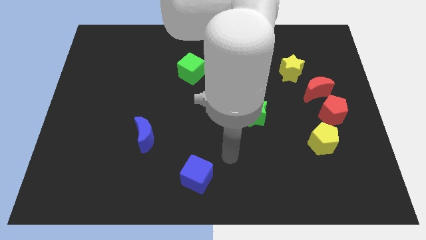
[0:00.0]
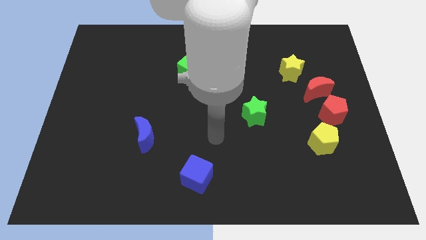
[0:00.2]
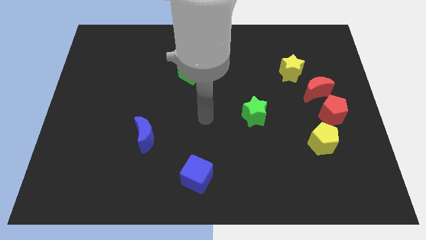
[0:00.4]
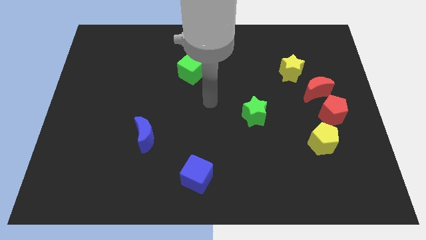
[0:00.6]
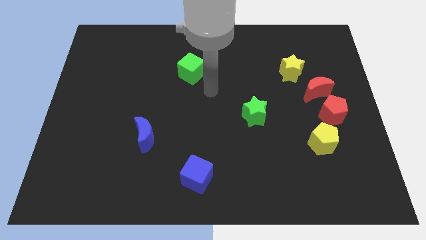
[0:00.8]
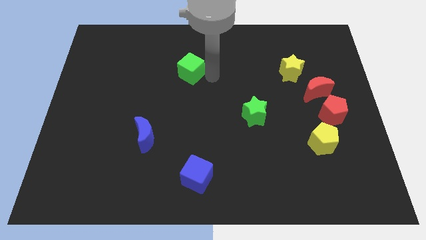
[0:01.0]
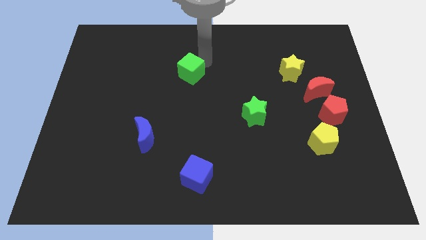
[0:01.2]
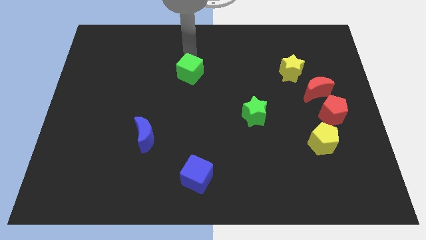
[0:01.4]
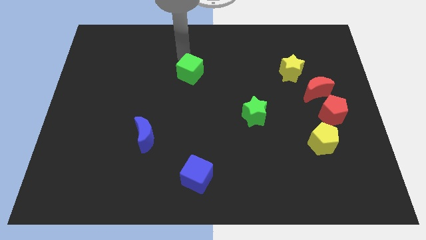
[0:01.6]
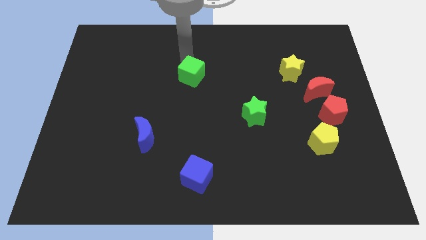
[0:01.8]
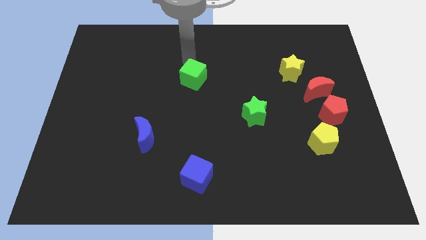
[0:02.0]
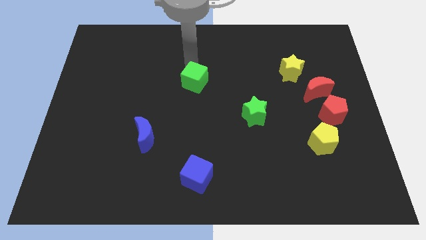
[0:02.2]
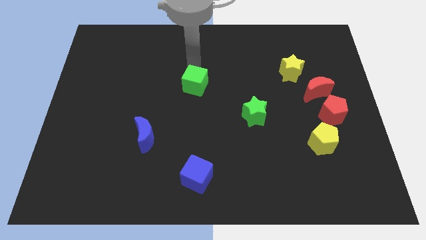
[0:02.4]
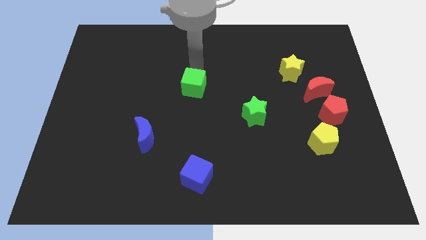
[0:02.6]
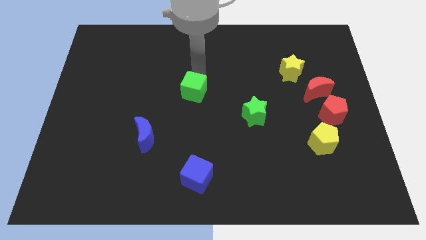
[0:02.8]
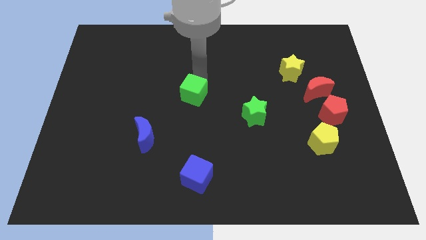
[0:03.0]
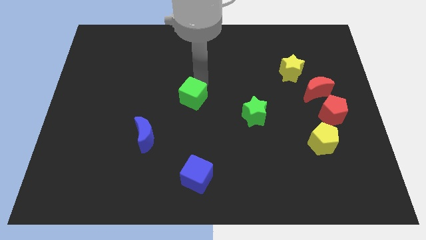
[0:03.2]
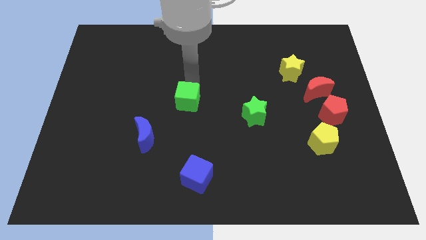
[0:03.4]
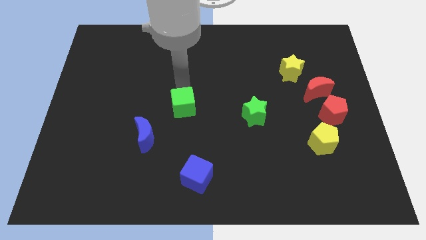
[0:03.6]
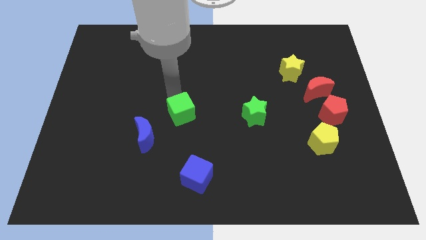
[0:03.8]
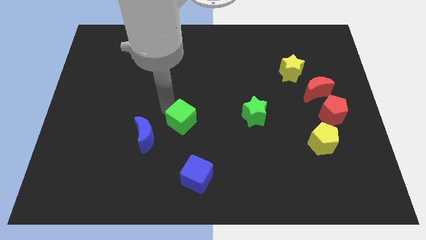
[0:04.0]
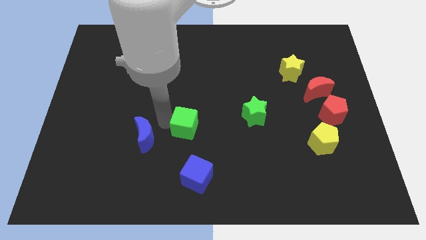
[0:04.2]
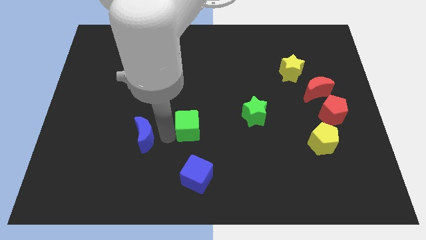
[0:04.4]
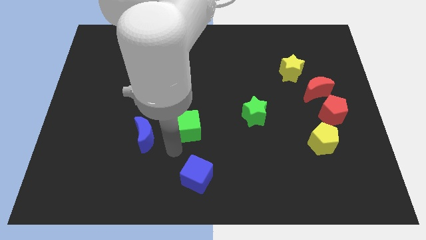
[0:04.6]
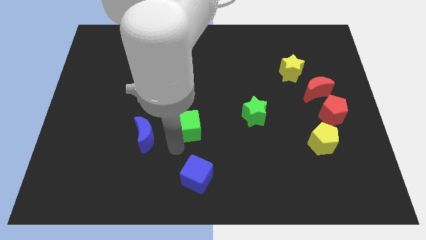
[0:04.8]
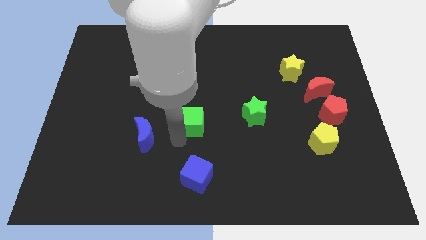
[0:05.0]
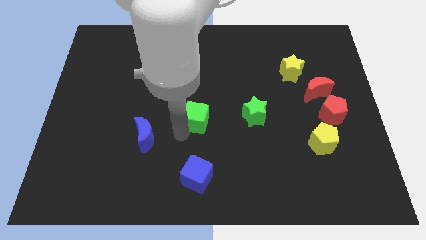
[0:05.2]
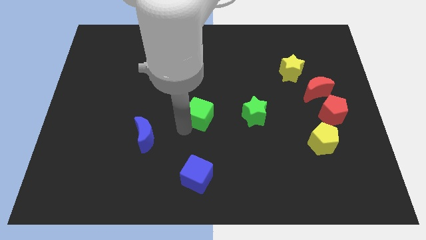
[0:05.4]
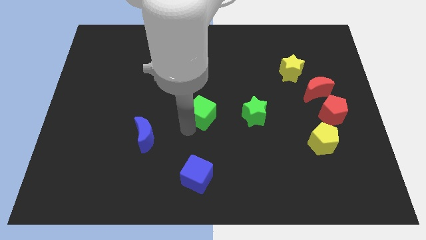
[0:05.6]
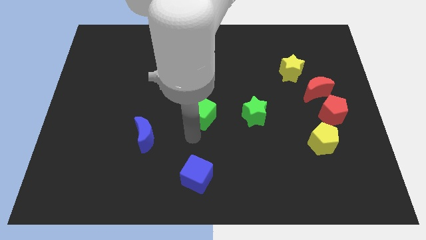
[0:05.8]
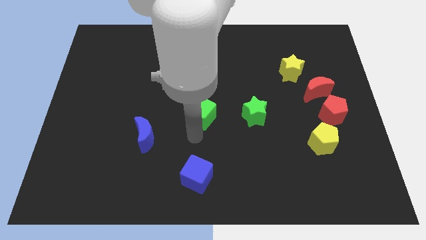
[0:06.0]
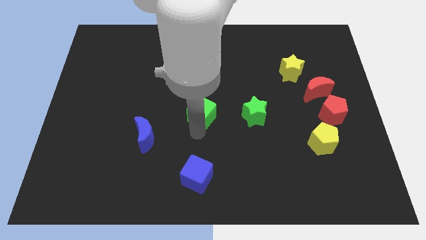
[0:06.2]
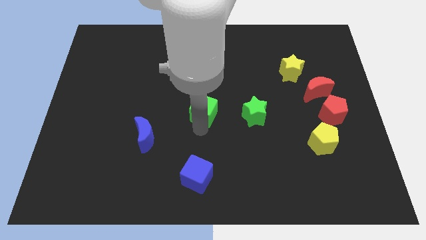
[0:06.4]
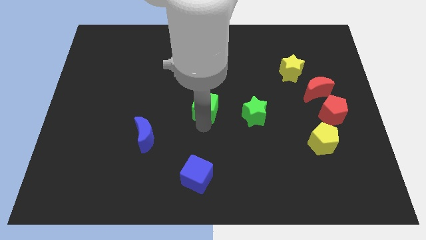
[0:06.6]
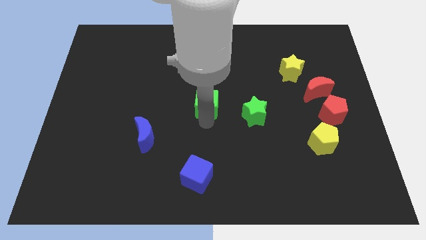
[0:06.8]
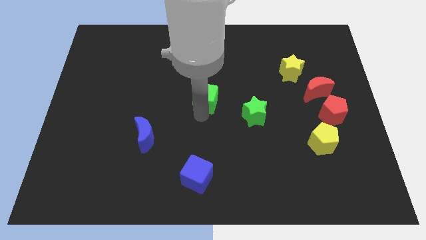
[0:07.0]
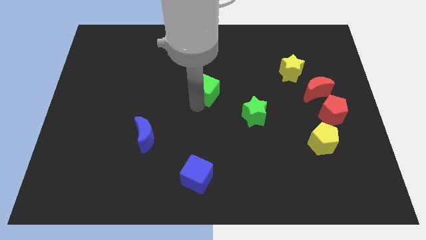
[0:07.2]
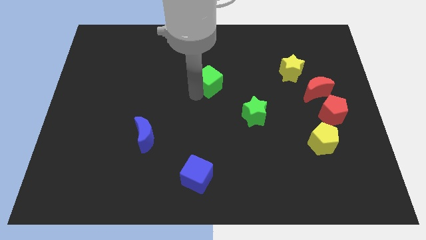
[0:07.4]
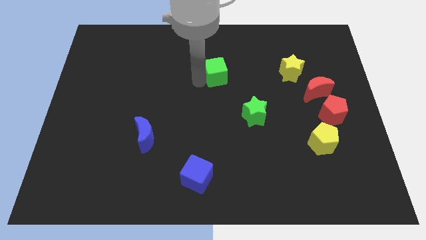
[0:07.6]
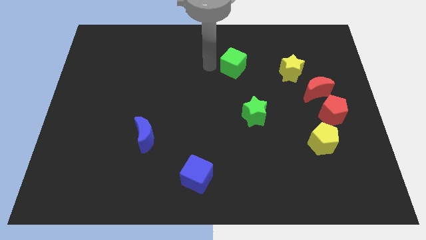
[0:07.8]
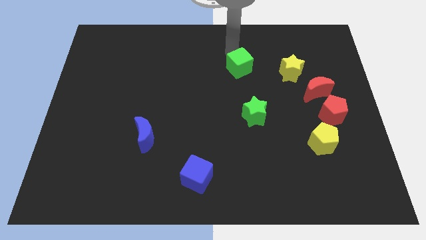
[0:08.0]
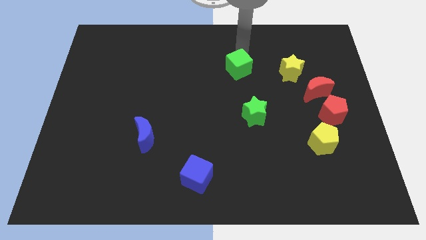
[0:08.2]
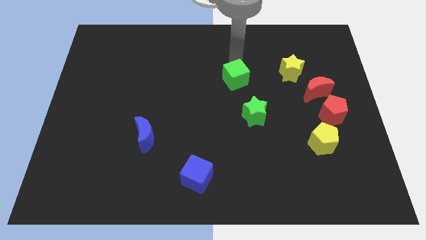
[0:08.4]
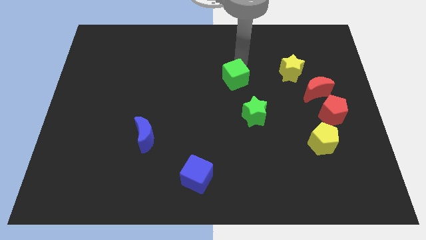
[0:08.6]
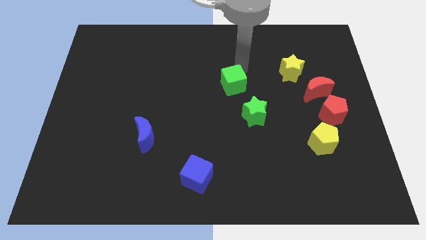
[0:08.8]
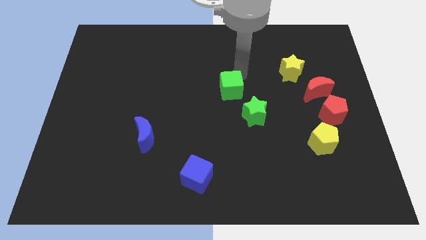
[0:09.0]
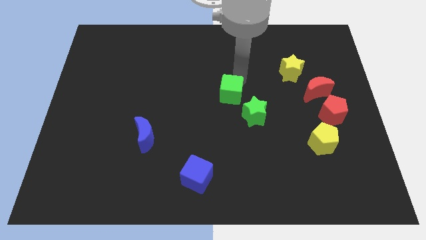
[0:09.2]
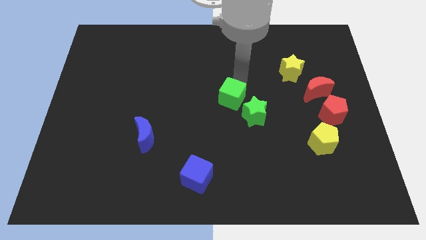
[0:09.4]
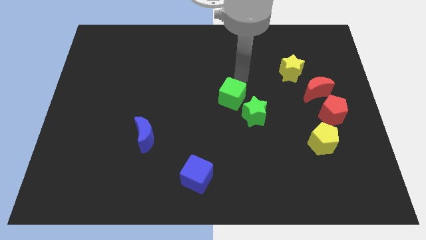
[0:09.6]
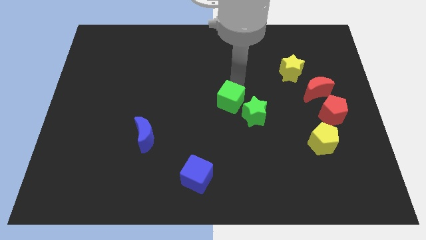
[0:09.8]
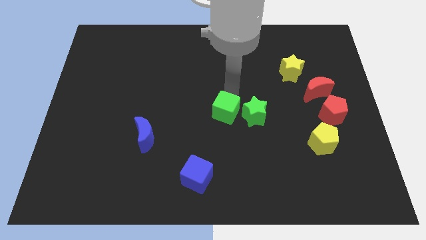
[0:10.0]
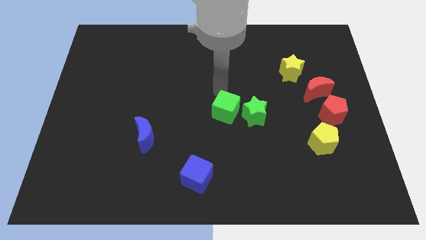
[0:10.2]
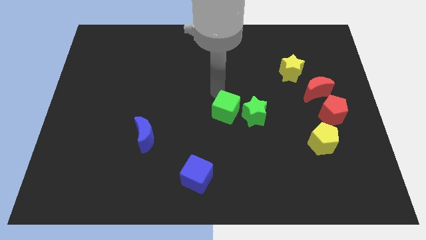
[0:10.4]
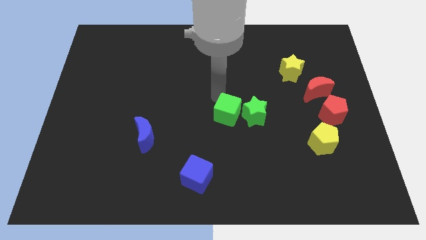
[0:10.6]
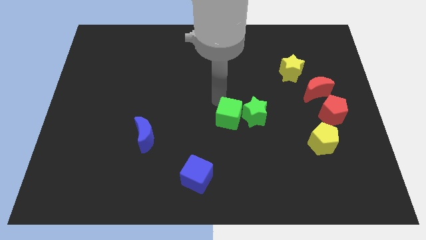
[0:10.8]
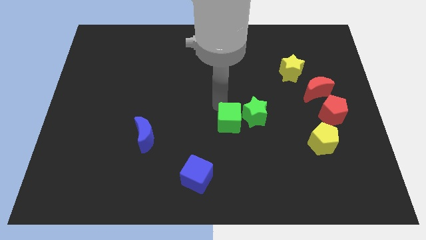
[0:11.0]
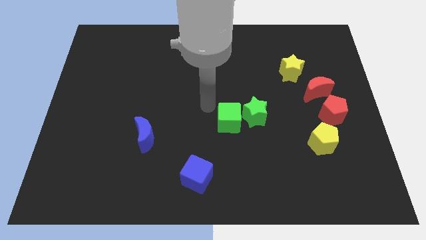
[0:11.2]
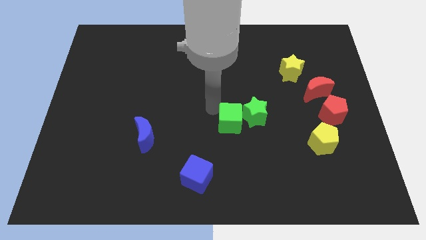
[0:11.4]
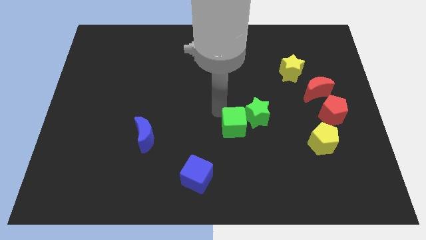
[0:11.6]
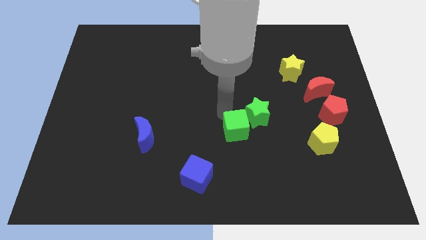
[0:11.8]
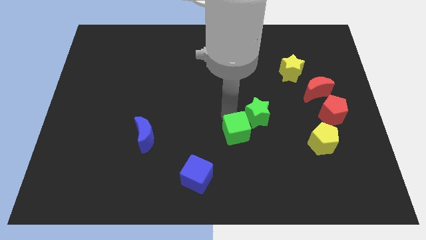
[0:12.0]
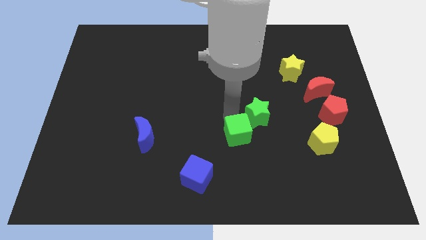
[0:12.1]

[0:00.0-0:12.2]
push the green cube diagonally down and to the right

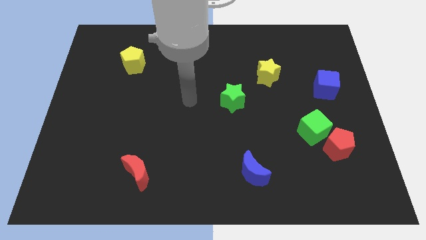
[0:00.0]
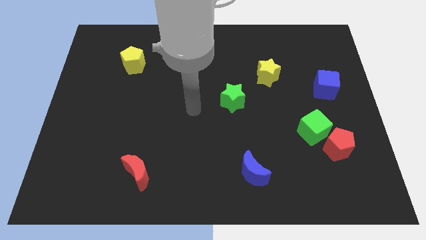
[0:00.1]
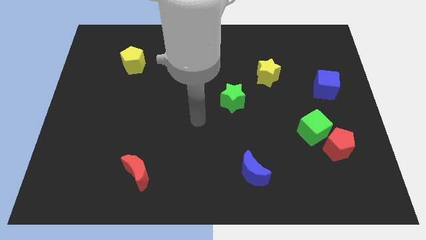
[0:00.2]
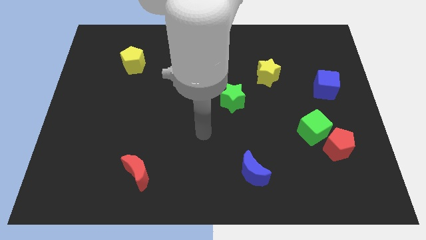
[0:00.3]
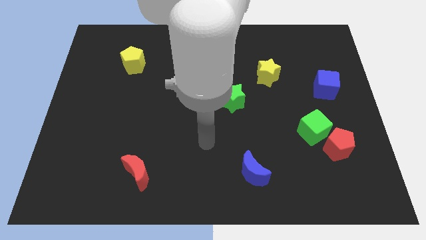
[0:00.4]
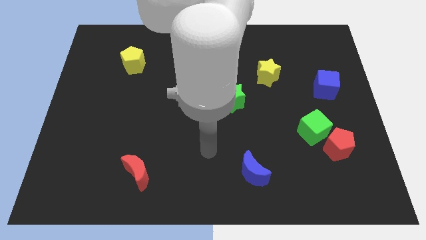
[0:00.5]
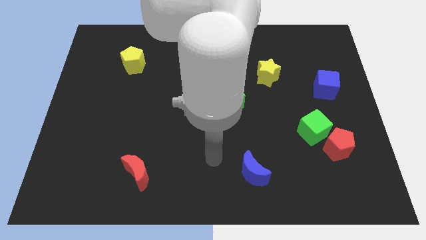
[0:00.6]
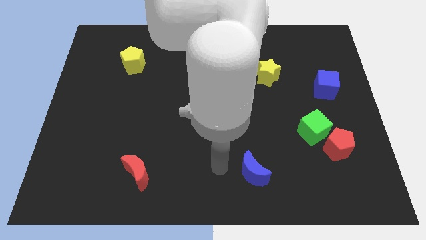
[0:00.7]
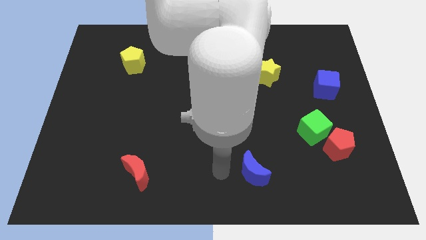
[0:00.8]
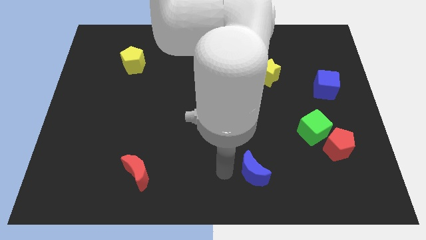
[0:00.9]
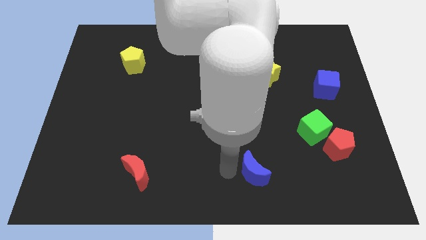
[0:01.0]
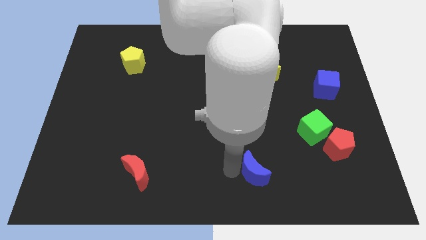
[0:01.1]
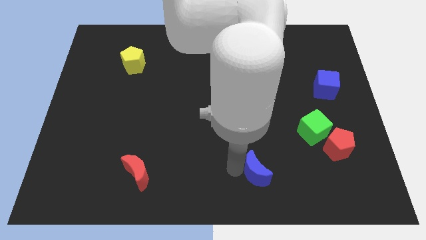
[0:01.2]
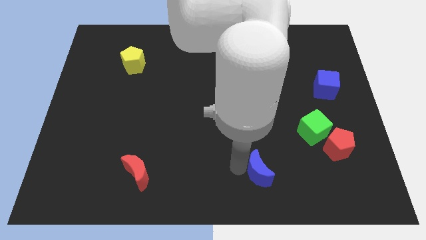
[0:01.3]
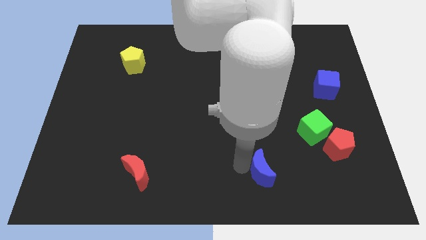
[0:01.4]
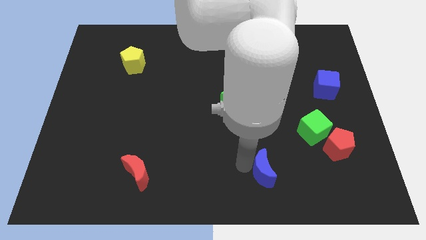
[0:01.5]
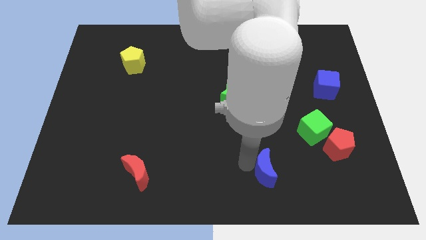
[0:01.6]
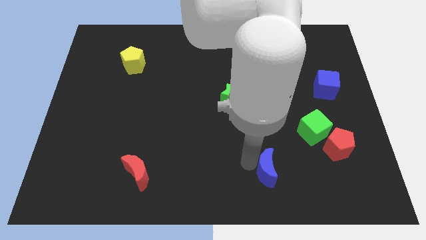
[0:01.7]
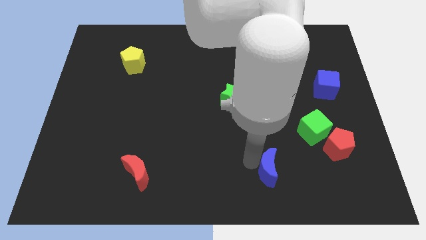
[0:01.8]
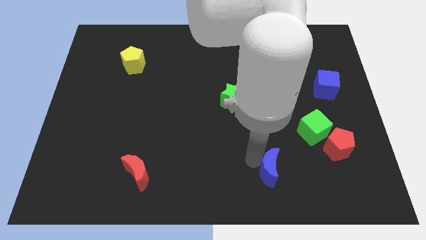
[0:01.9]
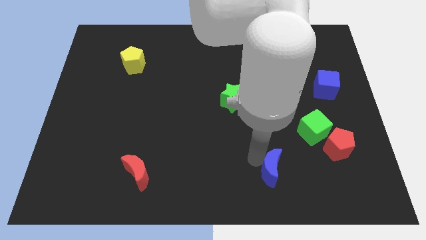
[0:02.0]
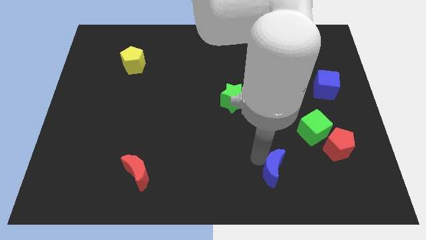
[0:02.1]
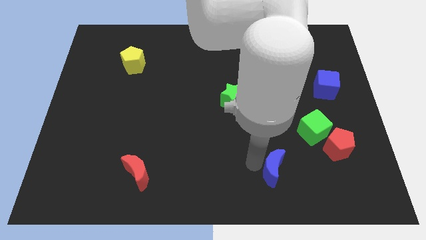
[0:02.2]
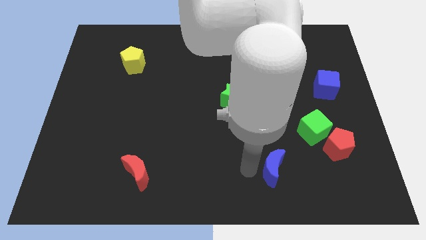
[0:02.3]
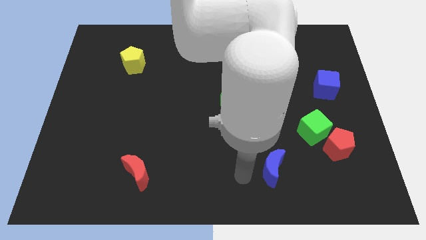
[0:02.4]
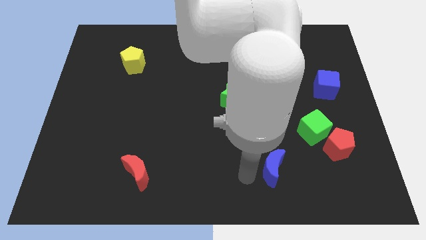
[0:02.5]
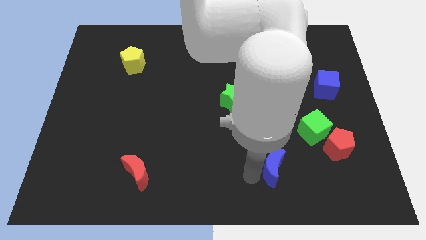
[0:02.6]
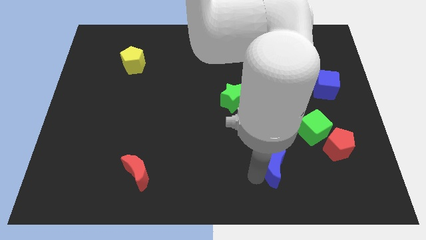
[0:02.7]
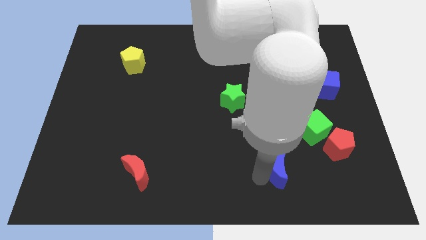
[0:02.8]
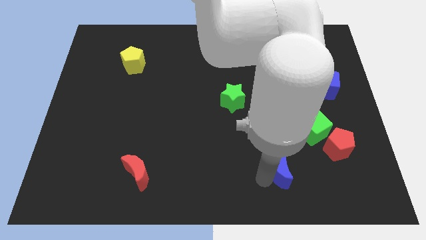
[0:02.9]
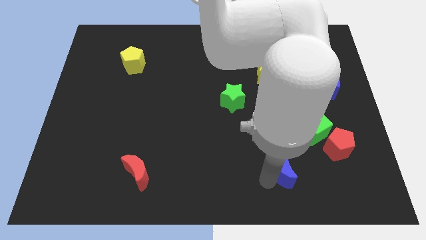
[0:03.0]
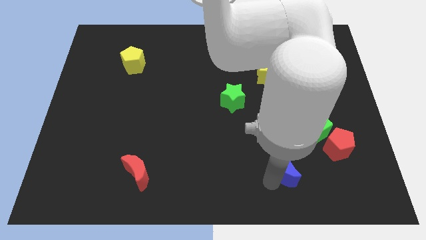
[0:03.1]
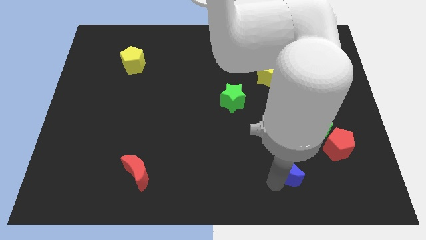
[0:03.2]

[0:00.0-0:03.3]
push the blue moon right a little bit
